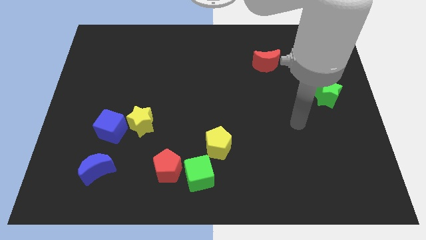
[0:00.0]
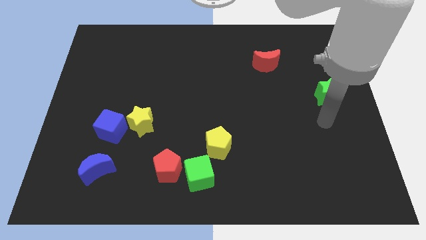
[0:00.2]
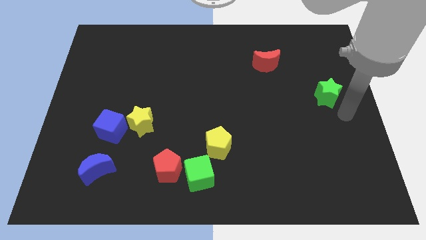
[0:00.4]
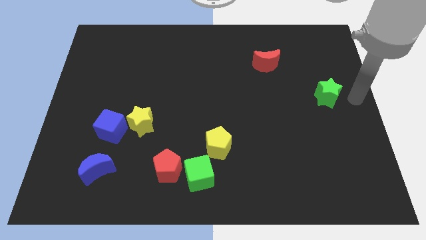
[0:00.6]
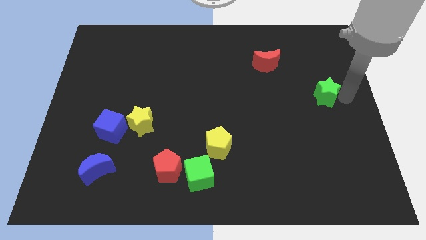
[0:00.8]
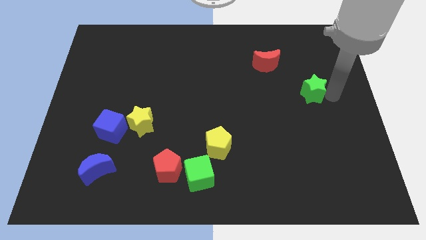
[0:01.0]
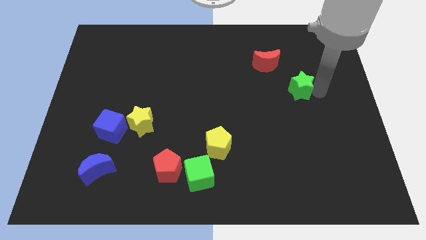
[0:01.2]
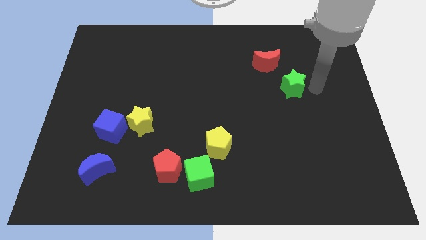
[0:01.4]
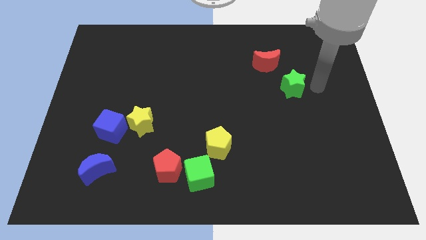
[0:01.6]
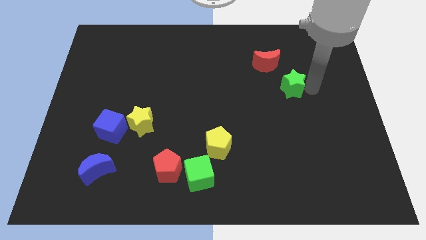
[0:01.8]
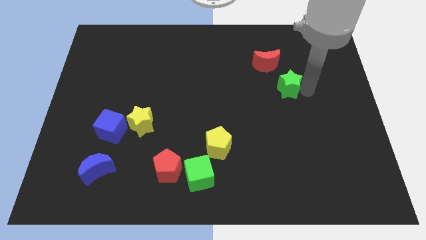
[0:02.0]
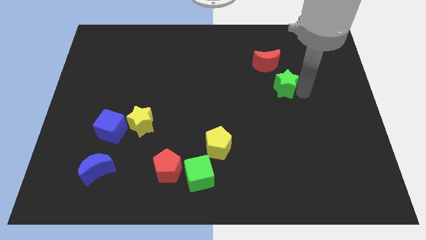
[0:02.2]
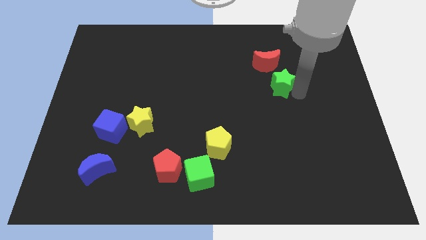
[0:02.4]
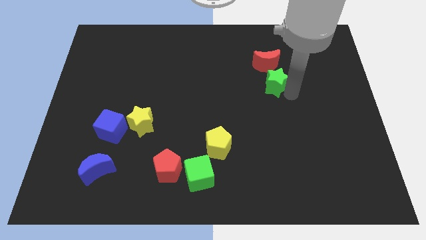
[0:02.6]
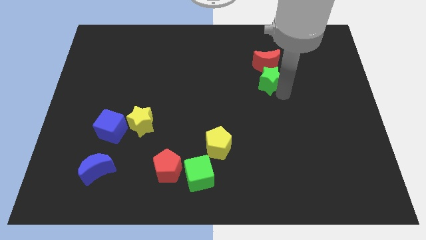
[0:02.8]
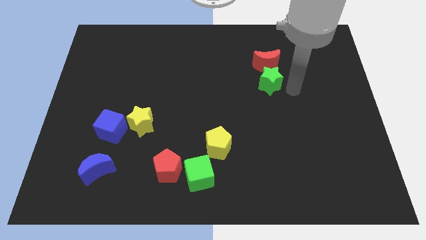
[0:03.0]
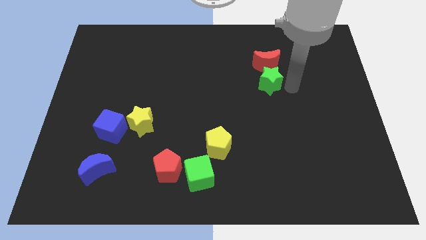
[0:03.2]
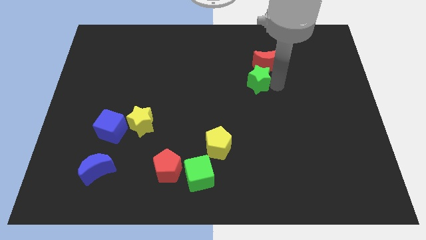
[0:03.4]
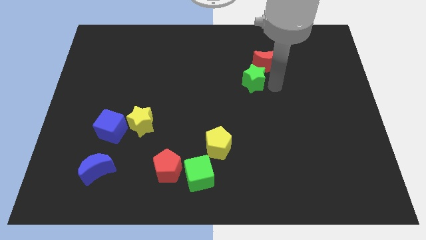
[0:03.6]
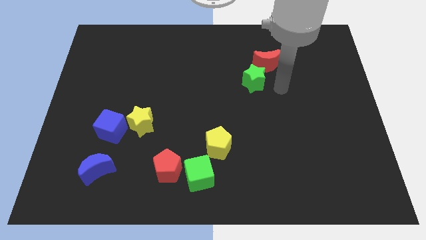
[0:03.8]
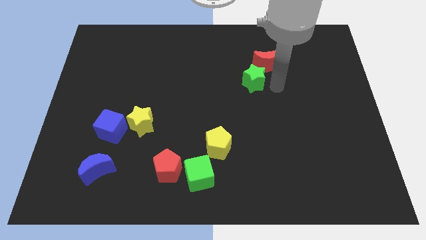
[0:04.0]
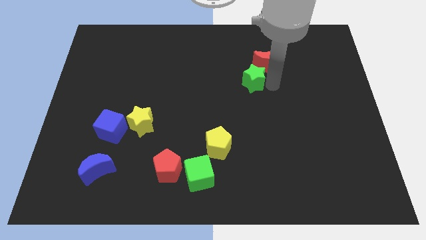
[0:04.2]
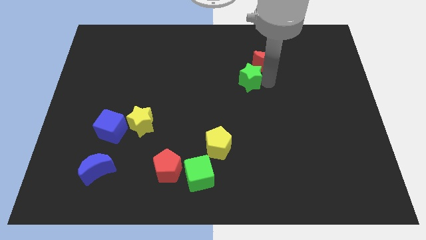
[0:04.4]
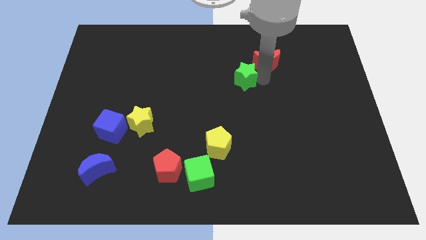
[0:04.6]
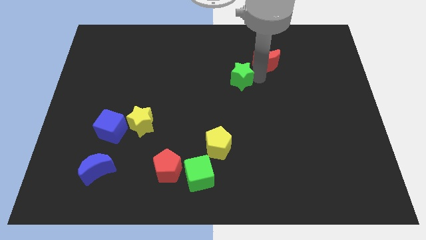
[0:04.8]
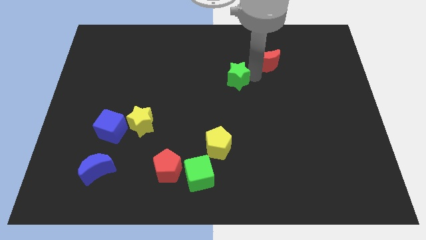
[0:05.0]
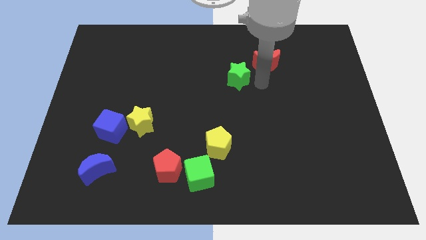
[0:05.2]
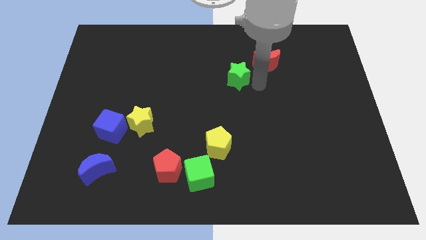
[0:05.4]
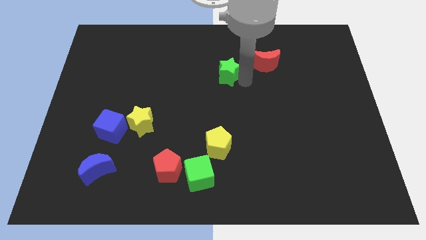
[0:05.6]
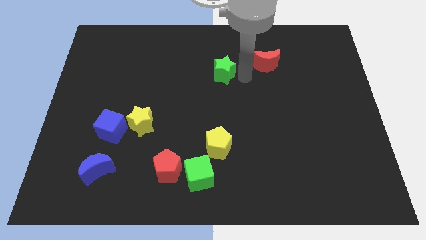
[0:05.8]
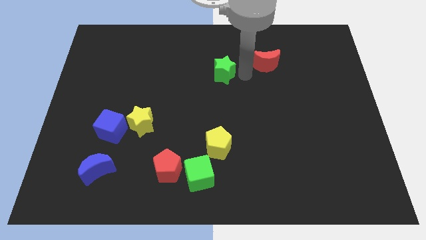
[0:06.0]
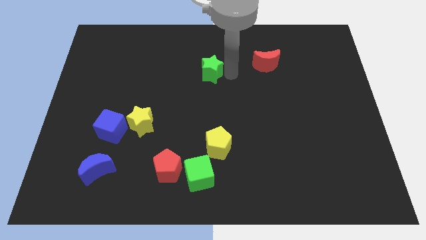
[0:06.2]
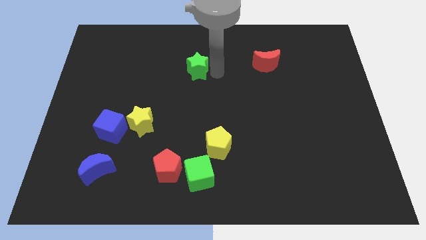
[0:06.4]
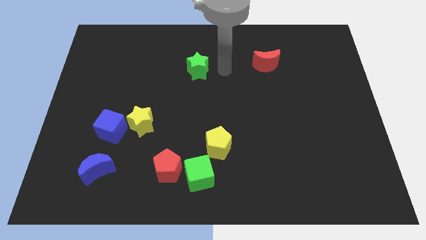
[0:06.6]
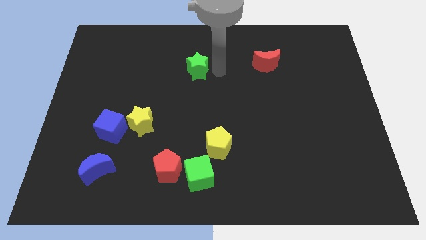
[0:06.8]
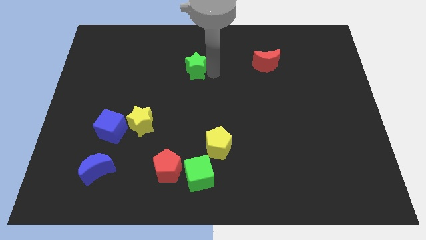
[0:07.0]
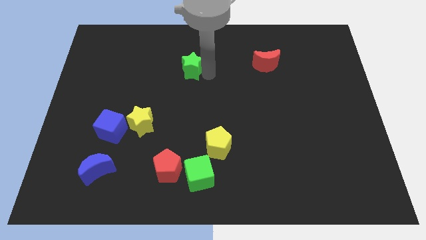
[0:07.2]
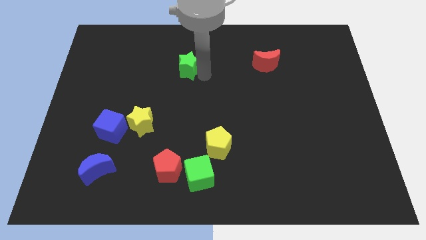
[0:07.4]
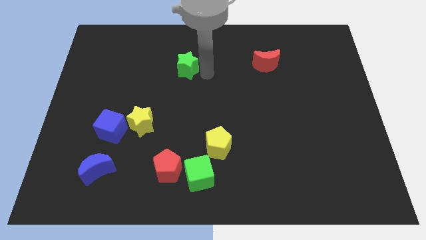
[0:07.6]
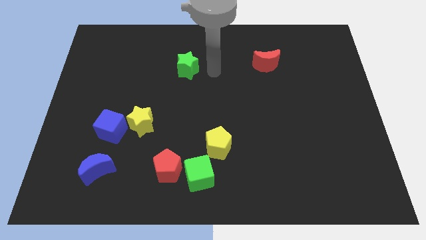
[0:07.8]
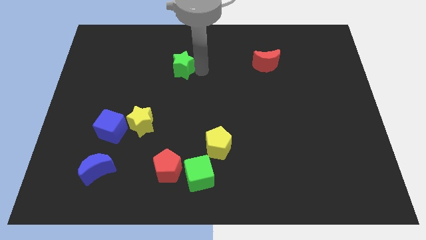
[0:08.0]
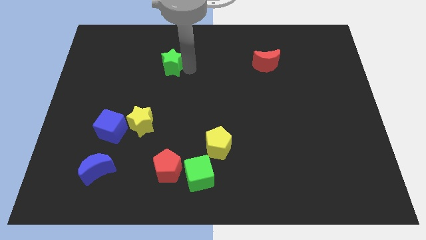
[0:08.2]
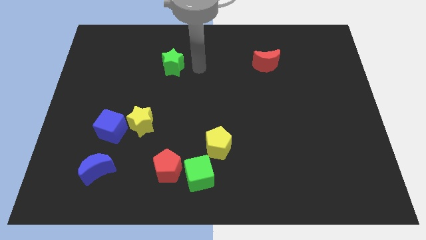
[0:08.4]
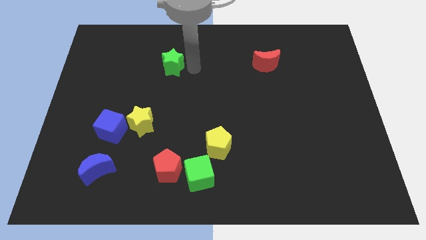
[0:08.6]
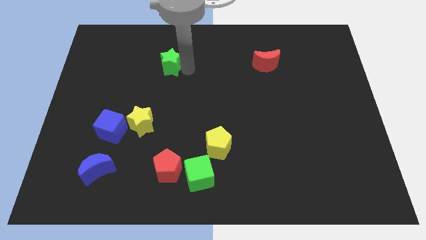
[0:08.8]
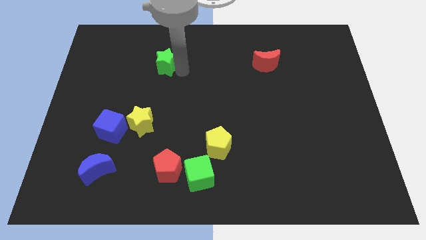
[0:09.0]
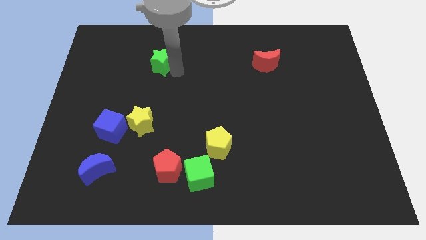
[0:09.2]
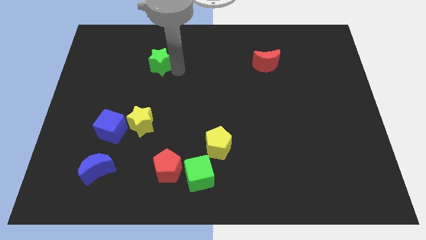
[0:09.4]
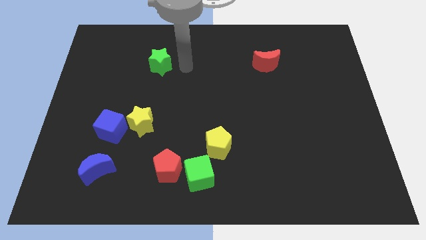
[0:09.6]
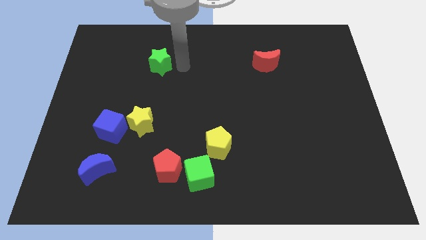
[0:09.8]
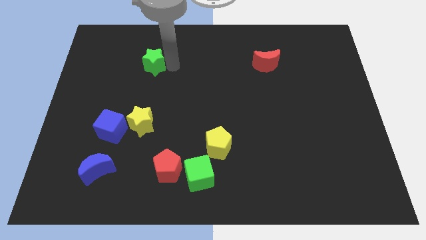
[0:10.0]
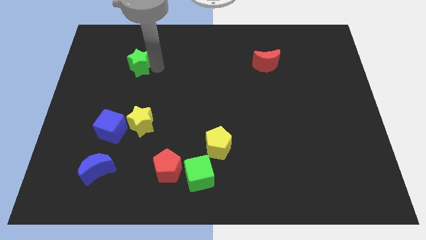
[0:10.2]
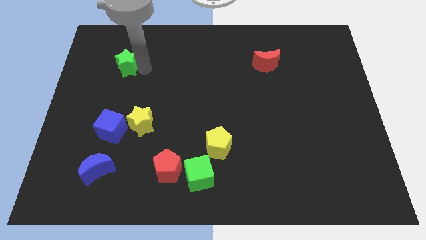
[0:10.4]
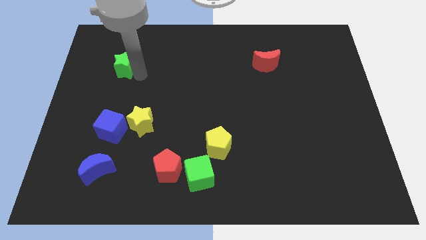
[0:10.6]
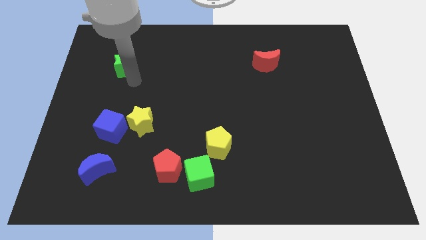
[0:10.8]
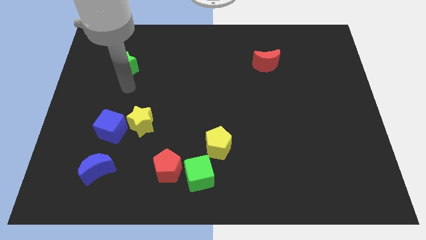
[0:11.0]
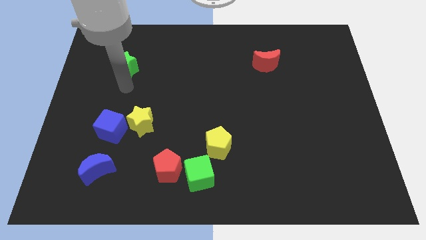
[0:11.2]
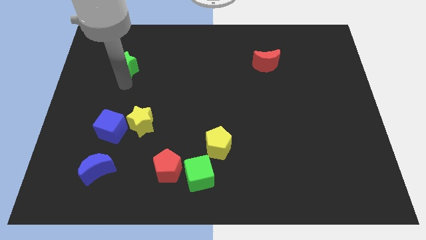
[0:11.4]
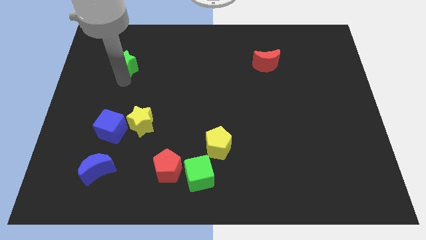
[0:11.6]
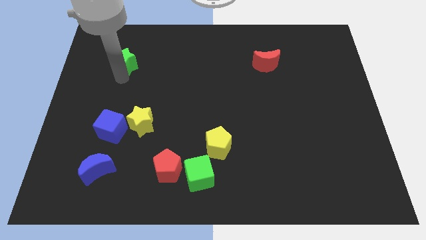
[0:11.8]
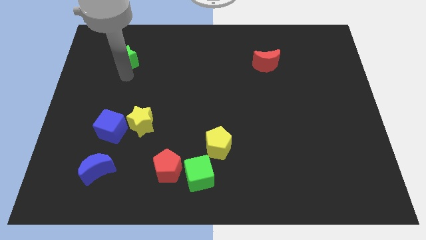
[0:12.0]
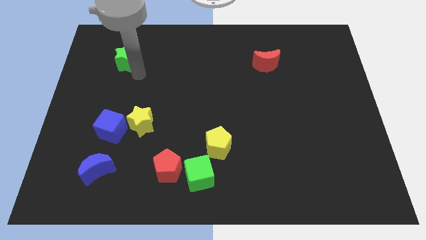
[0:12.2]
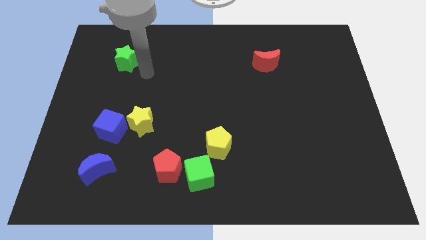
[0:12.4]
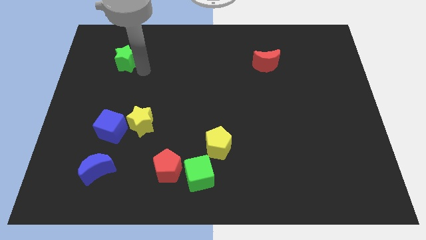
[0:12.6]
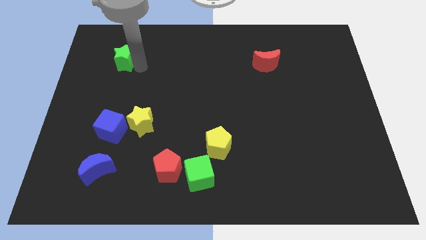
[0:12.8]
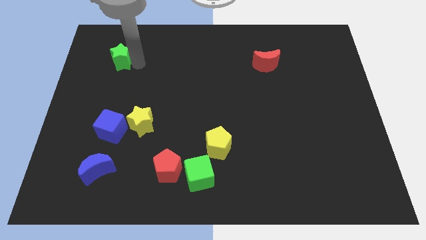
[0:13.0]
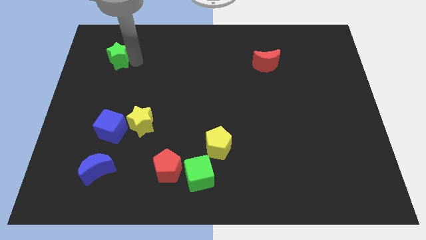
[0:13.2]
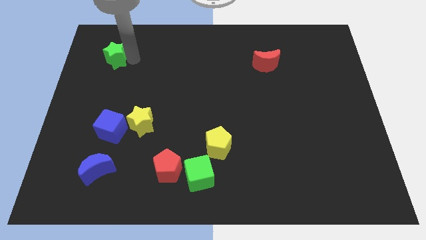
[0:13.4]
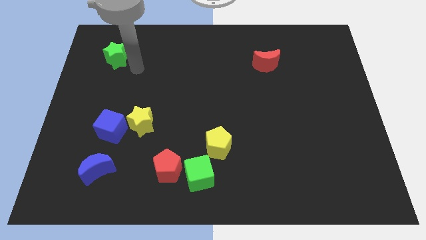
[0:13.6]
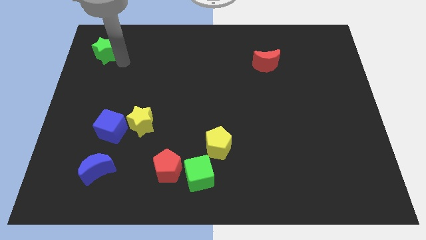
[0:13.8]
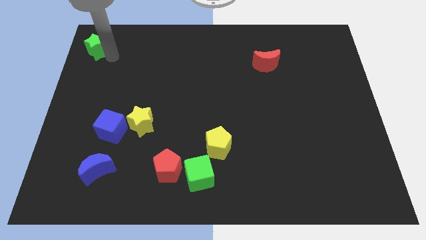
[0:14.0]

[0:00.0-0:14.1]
move the green star to the top left of the board
